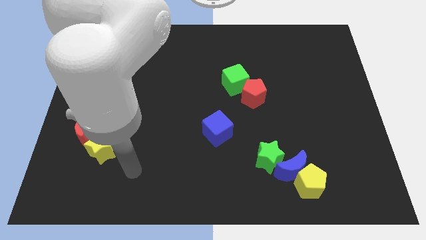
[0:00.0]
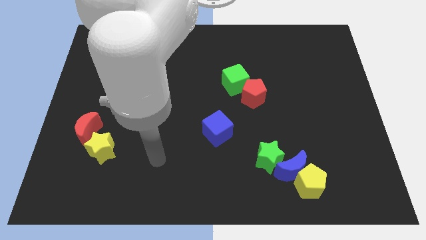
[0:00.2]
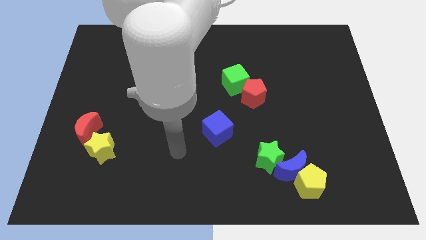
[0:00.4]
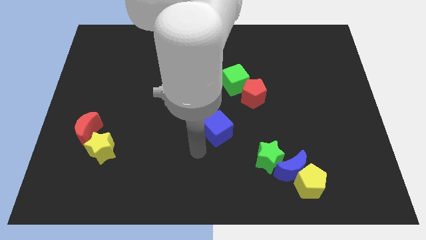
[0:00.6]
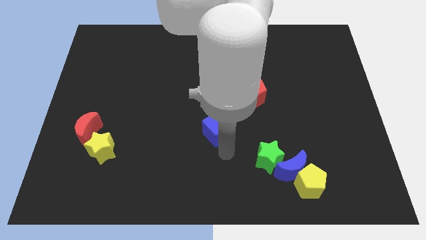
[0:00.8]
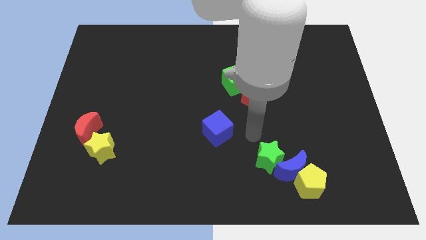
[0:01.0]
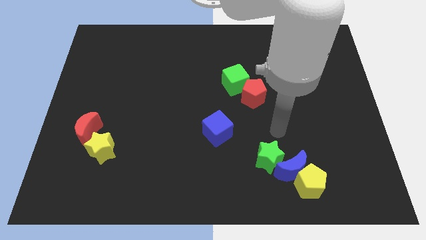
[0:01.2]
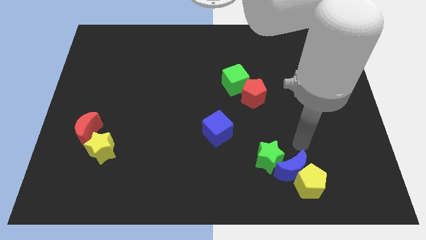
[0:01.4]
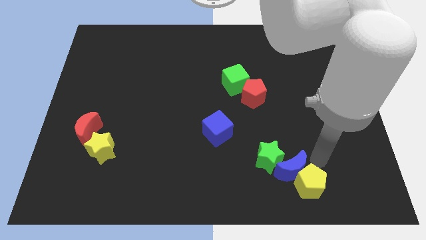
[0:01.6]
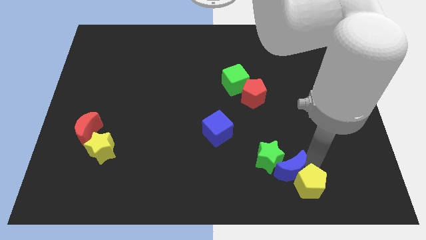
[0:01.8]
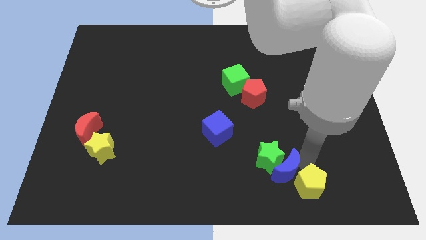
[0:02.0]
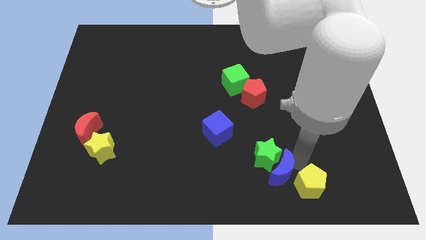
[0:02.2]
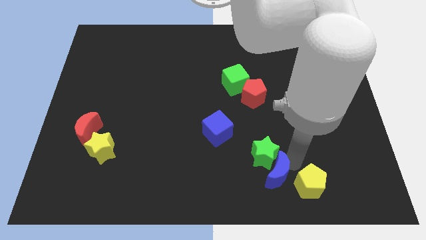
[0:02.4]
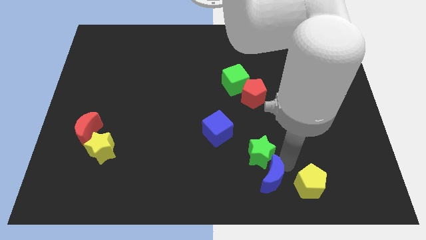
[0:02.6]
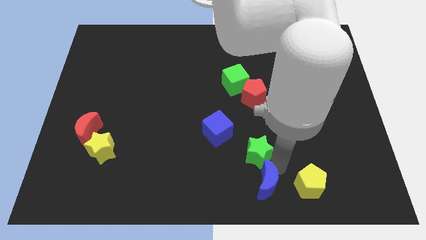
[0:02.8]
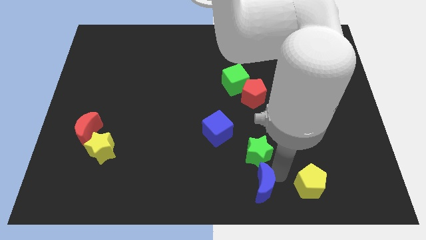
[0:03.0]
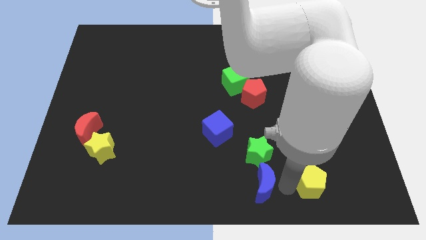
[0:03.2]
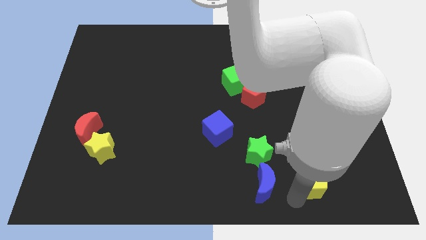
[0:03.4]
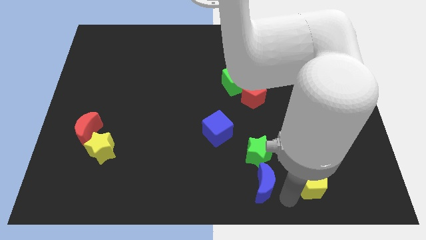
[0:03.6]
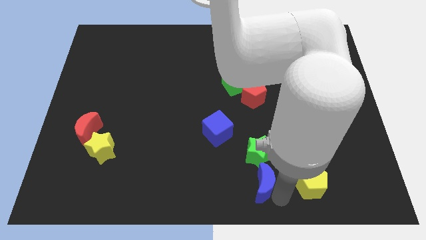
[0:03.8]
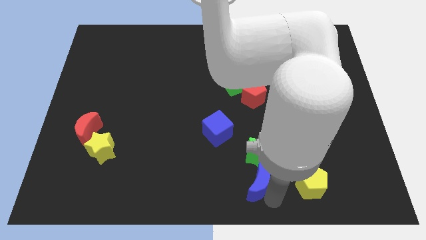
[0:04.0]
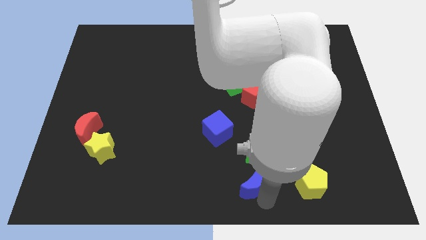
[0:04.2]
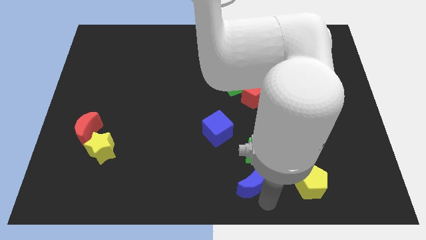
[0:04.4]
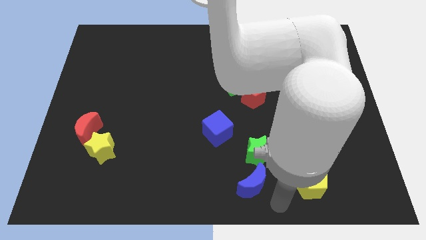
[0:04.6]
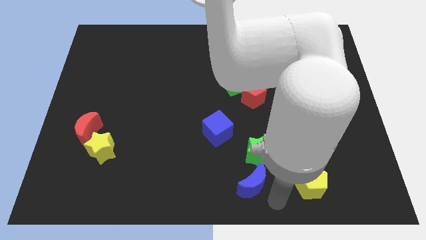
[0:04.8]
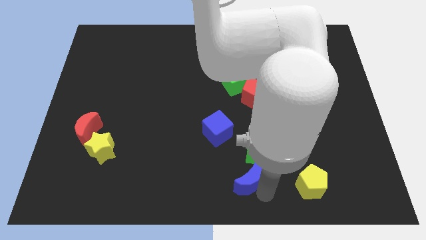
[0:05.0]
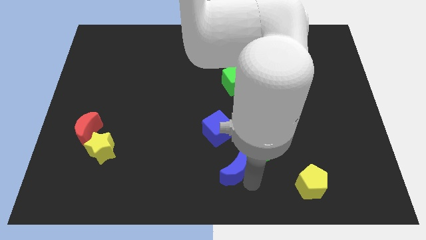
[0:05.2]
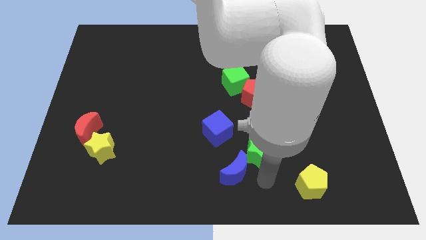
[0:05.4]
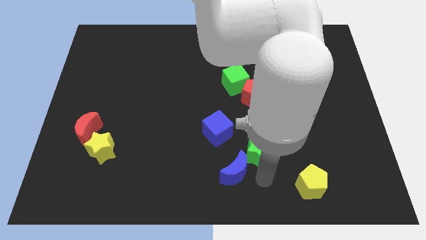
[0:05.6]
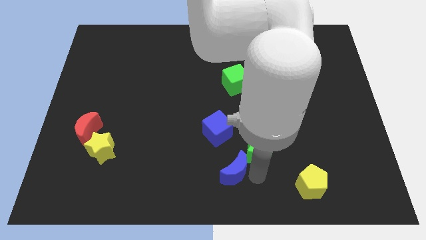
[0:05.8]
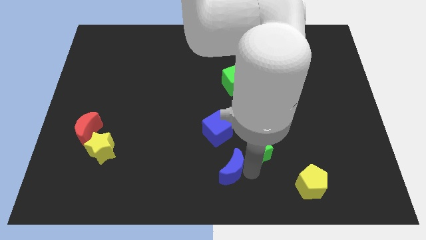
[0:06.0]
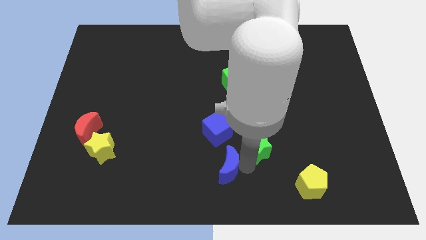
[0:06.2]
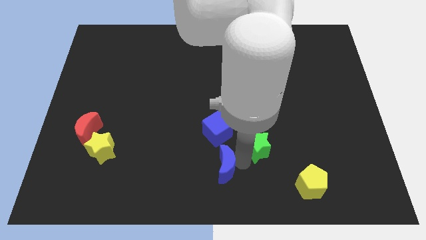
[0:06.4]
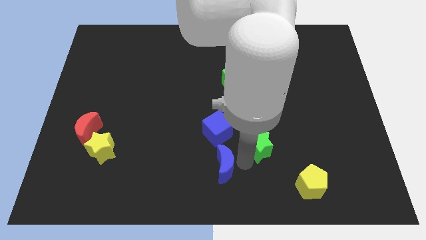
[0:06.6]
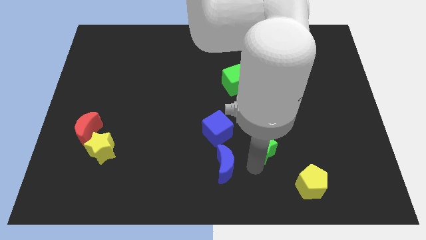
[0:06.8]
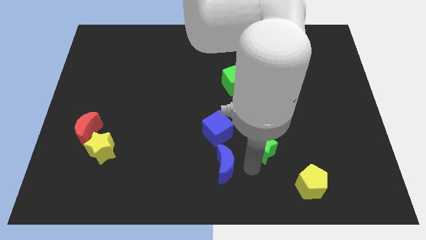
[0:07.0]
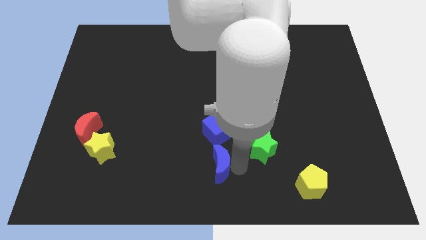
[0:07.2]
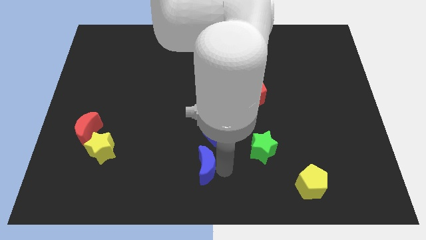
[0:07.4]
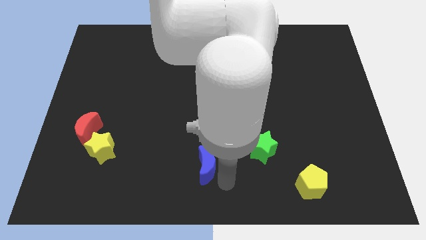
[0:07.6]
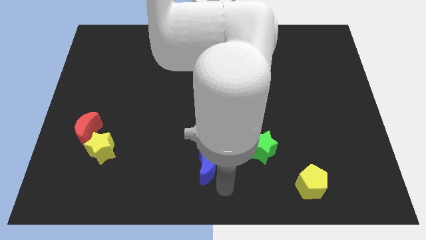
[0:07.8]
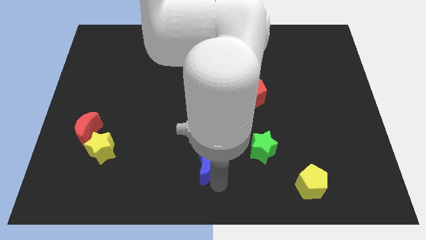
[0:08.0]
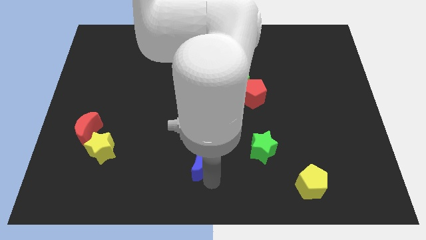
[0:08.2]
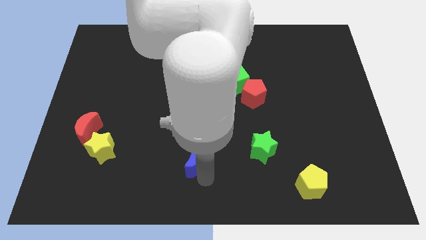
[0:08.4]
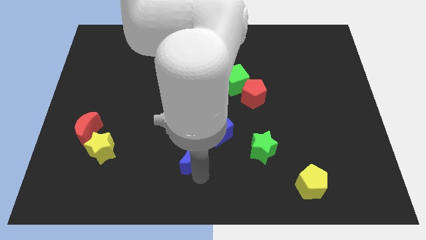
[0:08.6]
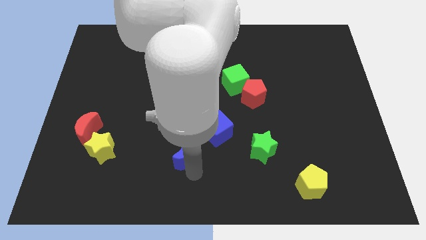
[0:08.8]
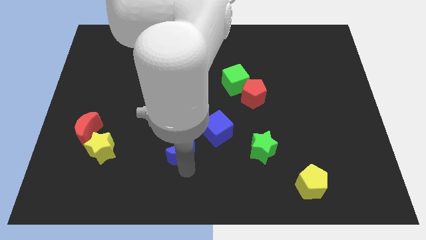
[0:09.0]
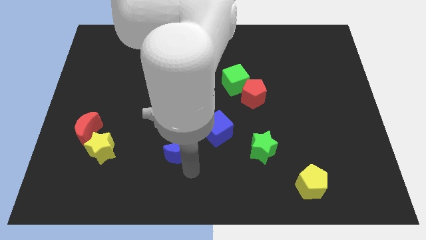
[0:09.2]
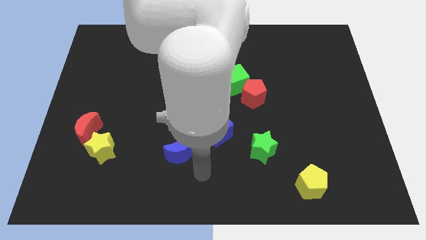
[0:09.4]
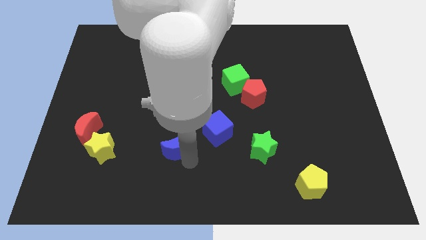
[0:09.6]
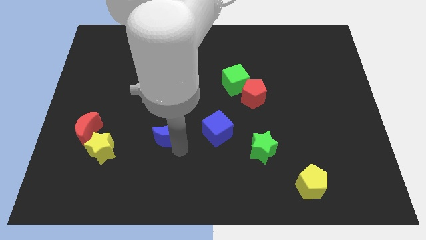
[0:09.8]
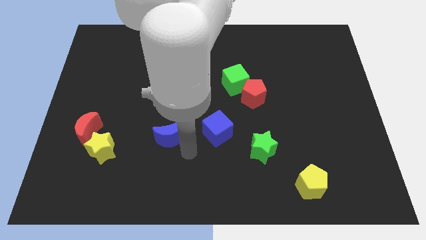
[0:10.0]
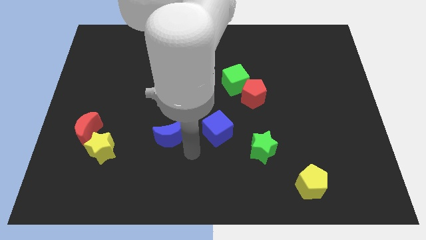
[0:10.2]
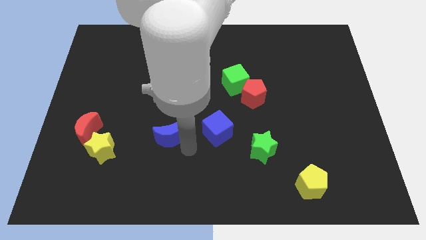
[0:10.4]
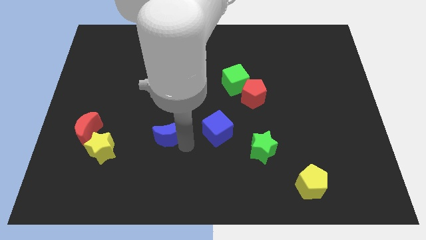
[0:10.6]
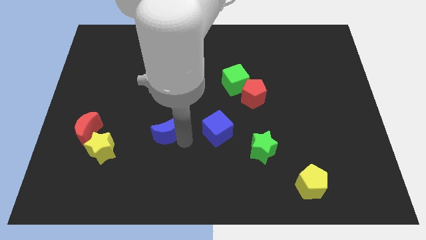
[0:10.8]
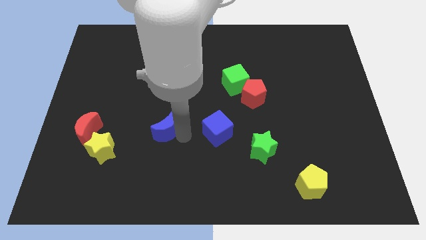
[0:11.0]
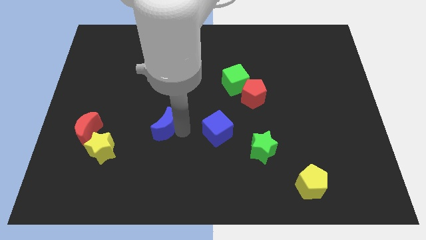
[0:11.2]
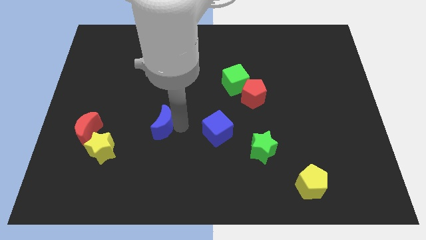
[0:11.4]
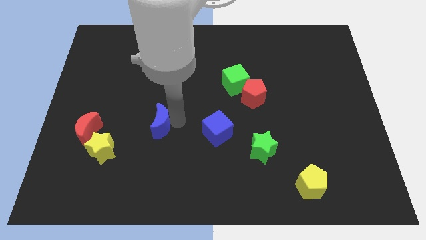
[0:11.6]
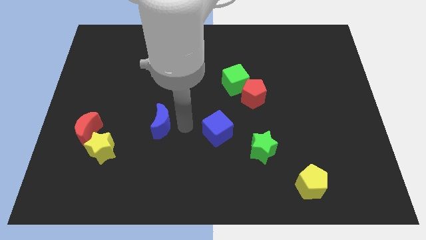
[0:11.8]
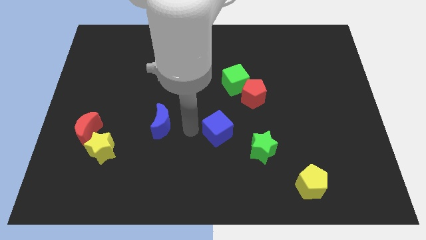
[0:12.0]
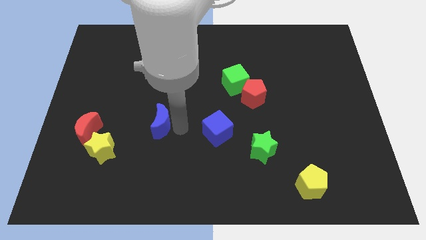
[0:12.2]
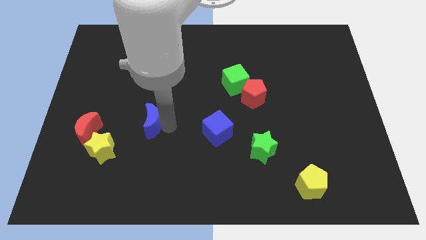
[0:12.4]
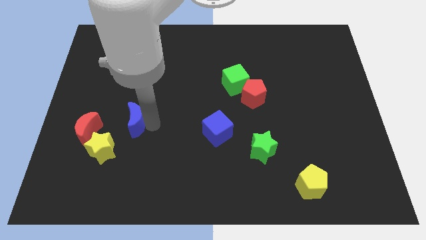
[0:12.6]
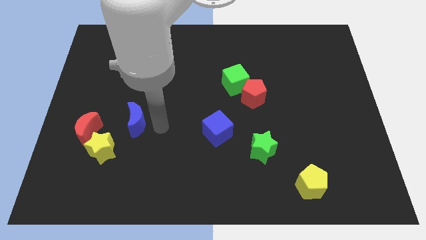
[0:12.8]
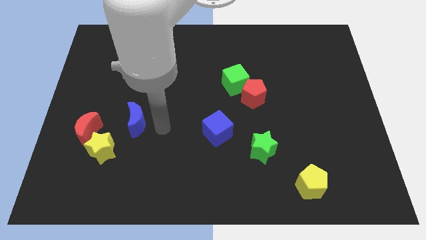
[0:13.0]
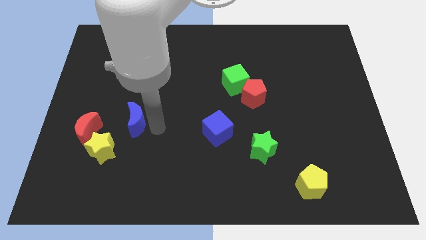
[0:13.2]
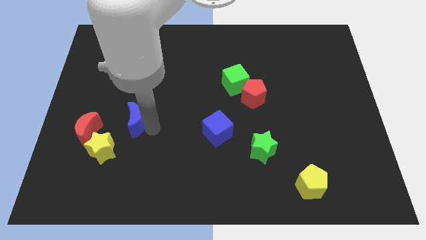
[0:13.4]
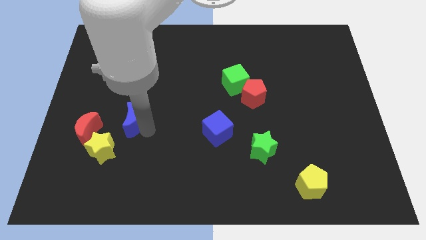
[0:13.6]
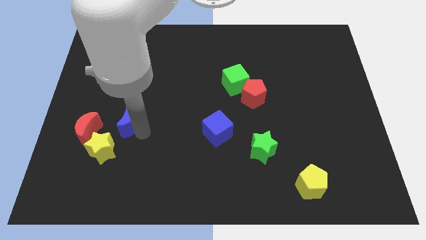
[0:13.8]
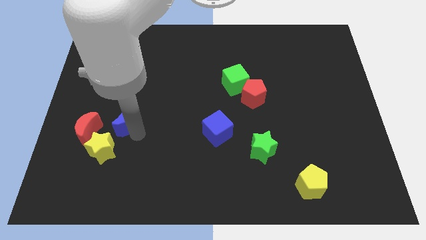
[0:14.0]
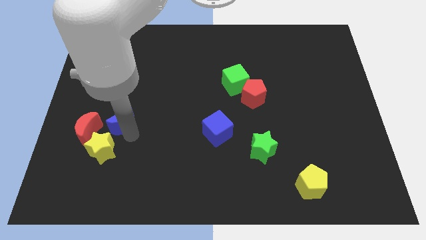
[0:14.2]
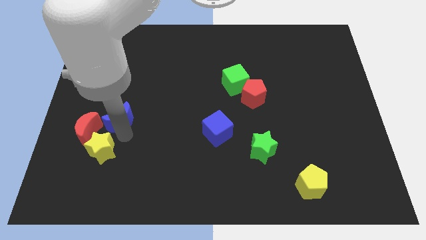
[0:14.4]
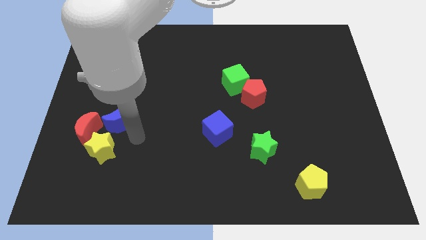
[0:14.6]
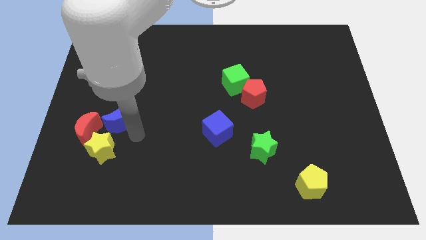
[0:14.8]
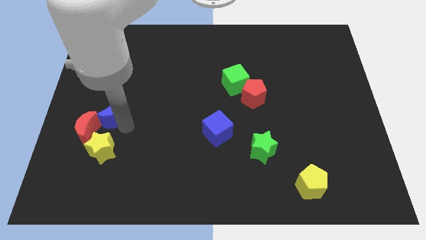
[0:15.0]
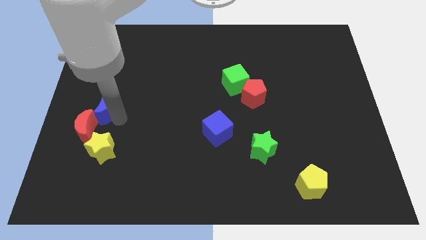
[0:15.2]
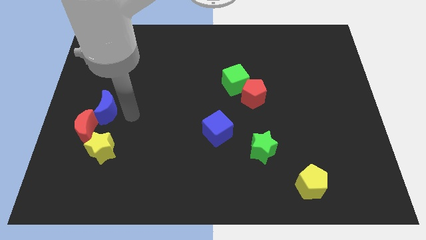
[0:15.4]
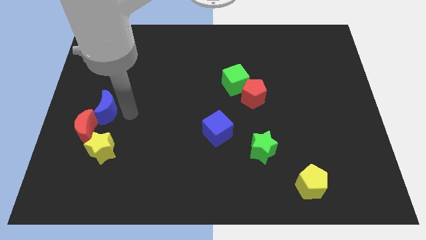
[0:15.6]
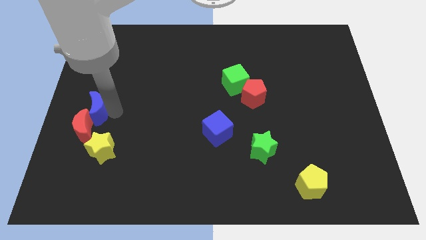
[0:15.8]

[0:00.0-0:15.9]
slide the blue moon to the left side
